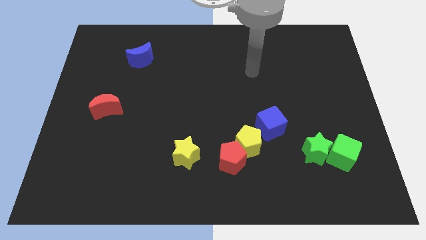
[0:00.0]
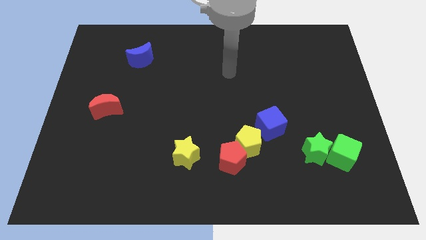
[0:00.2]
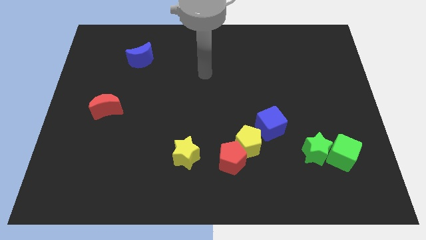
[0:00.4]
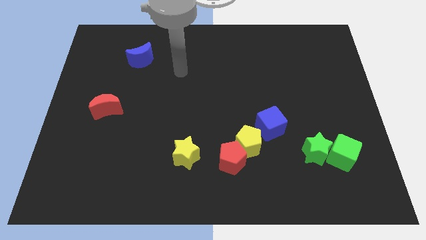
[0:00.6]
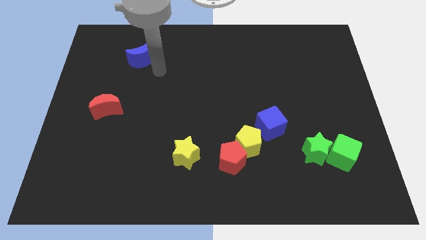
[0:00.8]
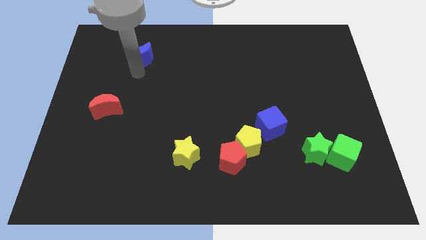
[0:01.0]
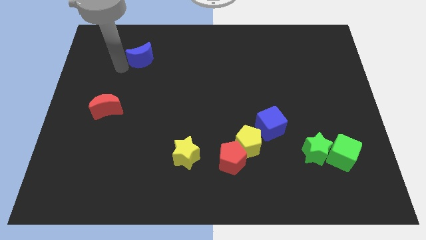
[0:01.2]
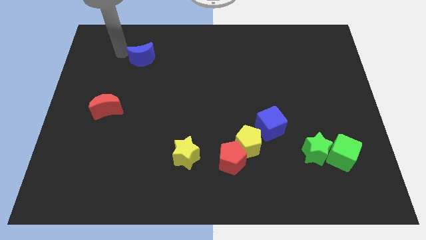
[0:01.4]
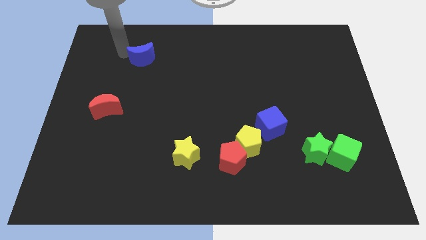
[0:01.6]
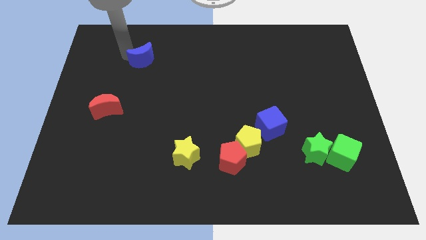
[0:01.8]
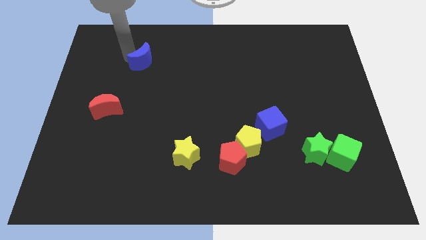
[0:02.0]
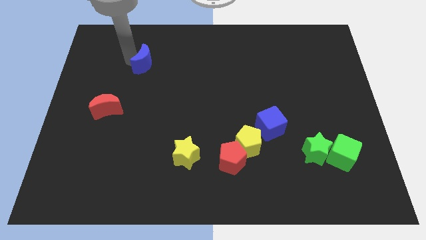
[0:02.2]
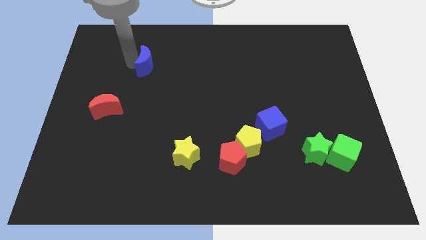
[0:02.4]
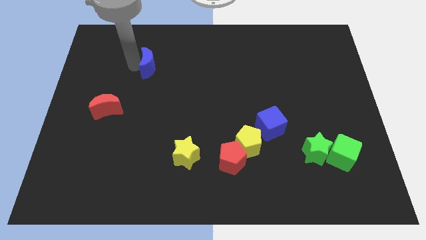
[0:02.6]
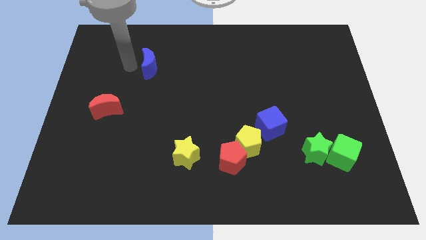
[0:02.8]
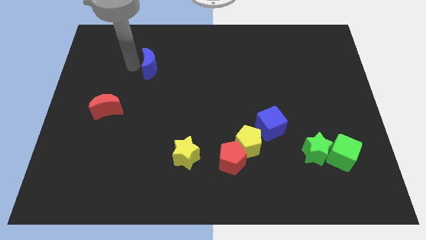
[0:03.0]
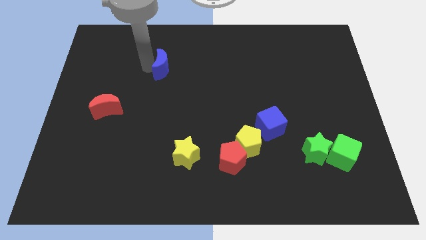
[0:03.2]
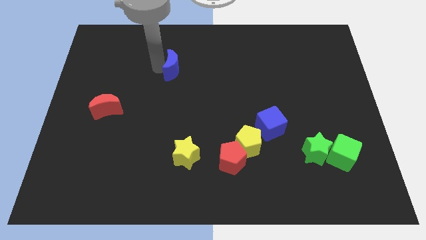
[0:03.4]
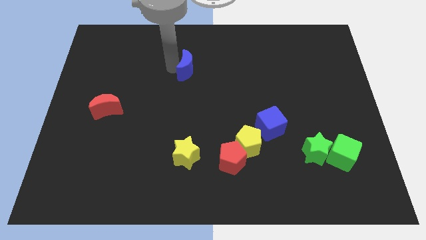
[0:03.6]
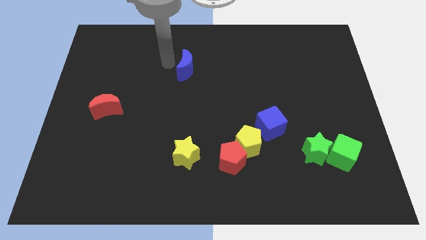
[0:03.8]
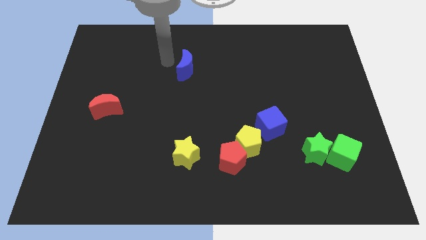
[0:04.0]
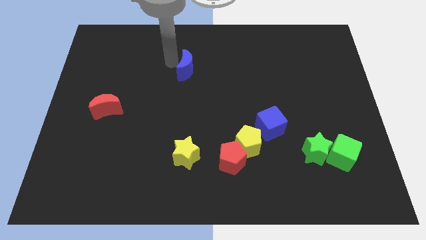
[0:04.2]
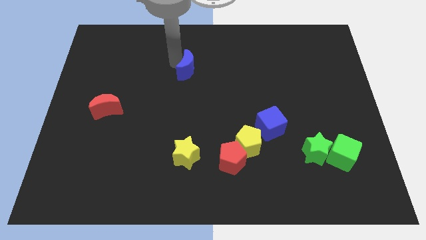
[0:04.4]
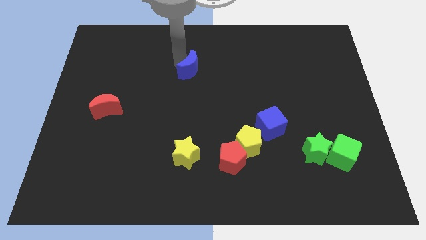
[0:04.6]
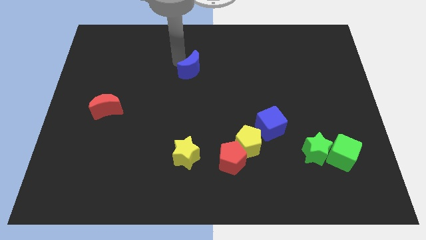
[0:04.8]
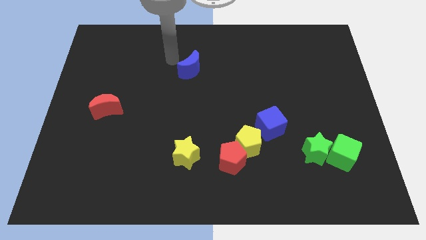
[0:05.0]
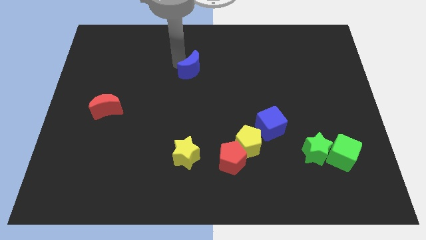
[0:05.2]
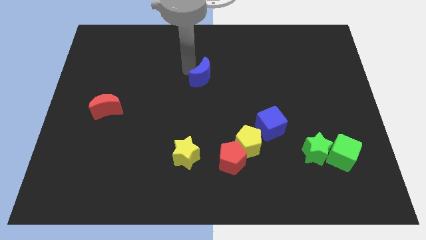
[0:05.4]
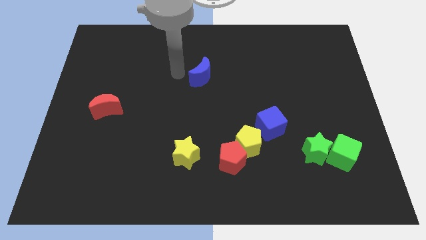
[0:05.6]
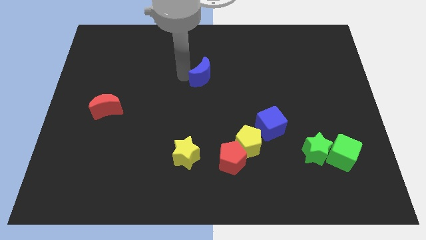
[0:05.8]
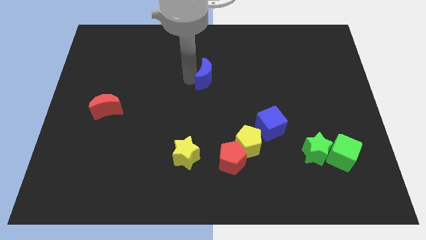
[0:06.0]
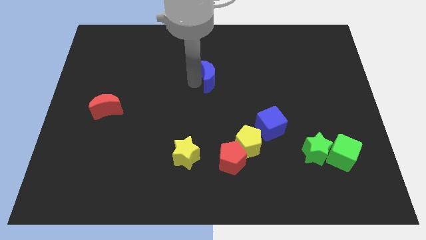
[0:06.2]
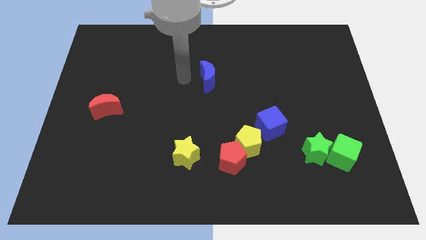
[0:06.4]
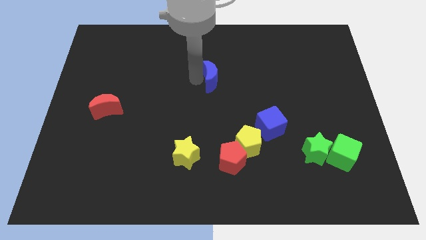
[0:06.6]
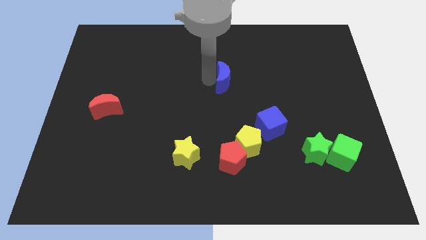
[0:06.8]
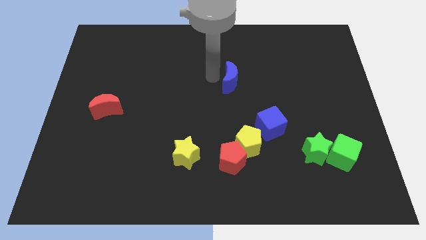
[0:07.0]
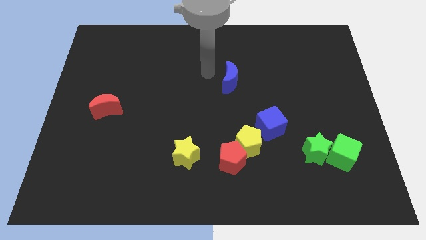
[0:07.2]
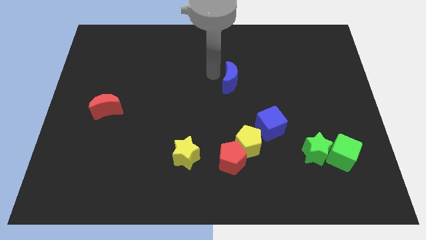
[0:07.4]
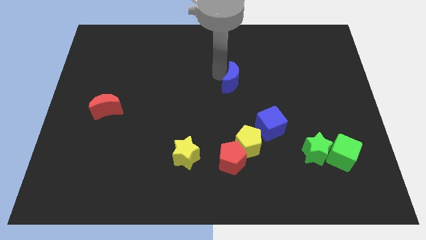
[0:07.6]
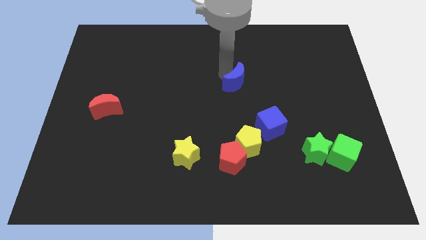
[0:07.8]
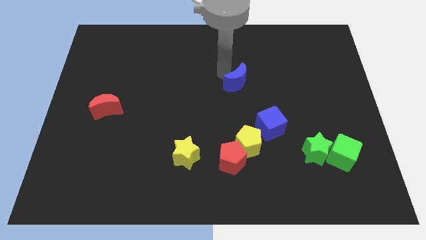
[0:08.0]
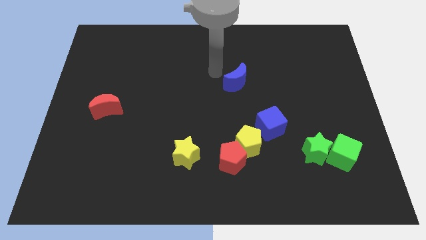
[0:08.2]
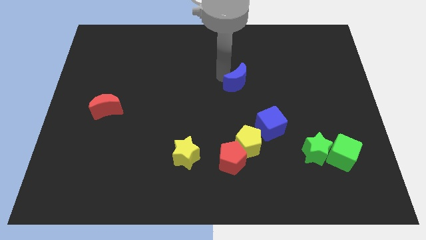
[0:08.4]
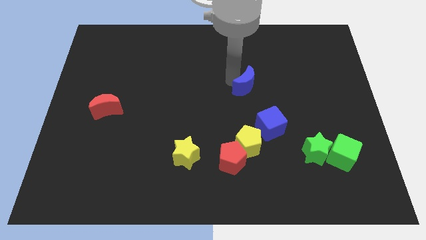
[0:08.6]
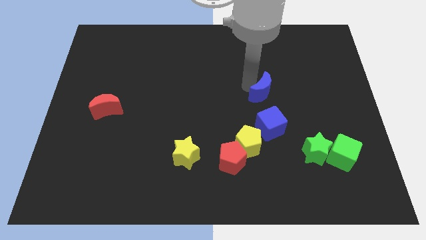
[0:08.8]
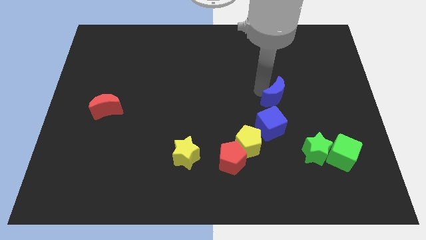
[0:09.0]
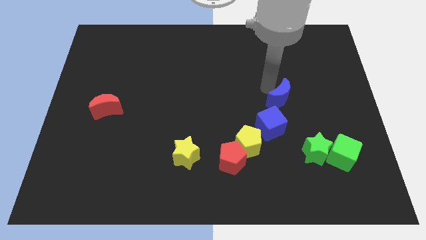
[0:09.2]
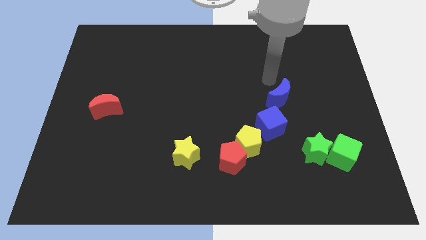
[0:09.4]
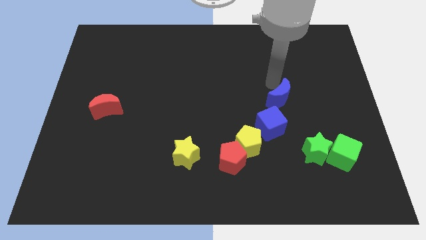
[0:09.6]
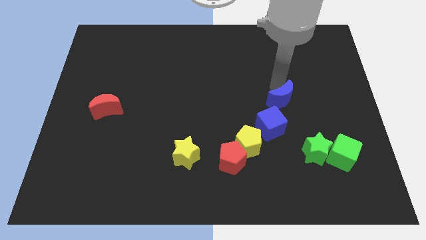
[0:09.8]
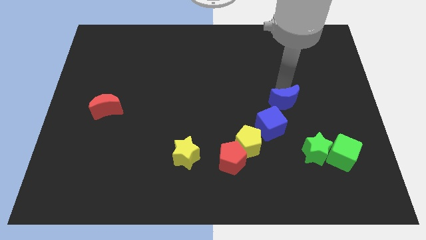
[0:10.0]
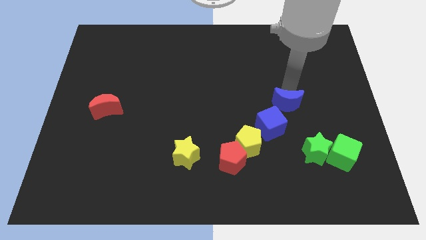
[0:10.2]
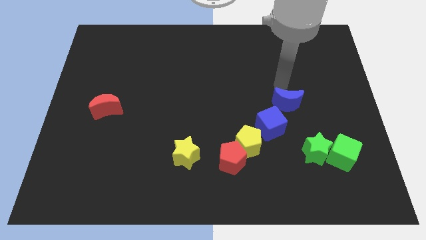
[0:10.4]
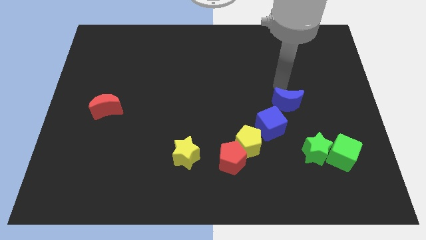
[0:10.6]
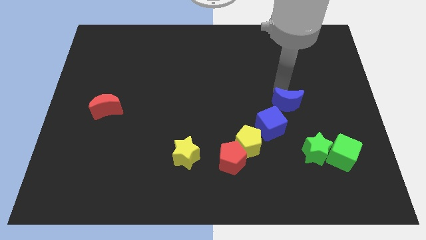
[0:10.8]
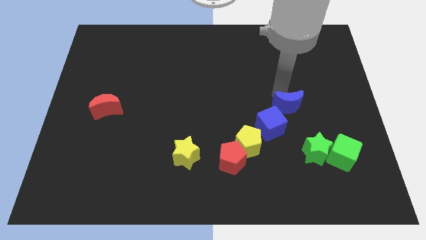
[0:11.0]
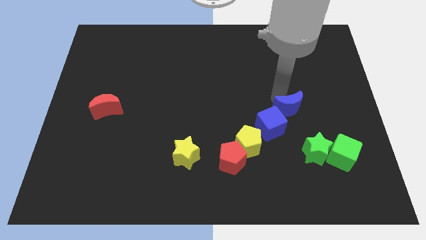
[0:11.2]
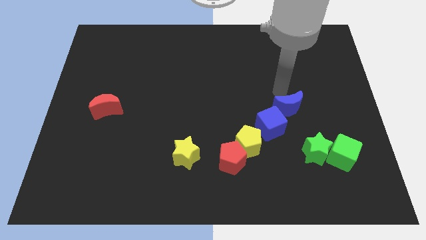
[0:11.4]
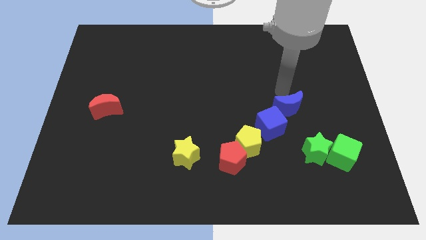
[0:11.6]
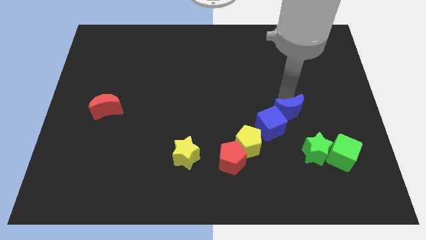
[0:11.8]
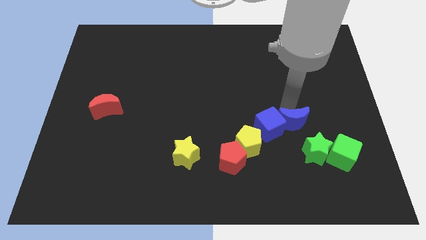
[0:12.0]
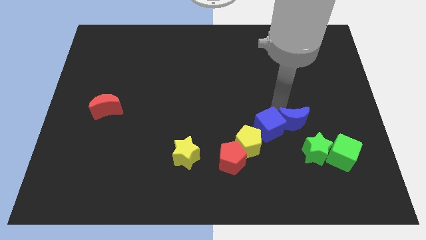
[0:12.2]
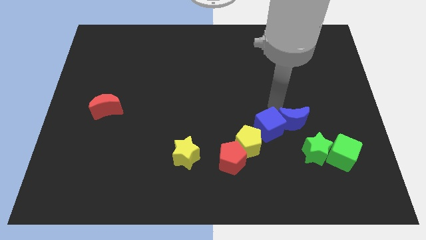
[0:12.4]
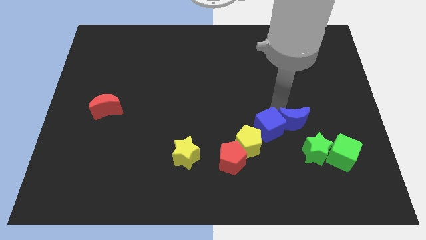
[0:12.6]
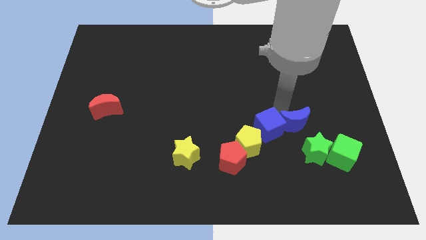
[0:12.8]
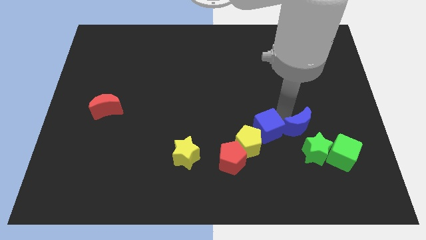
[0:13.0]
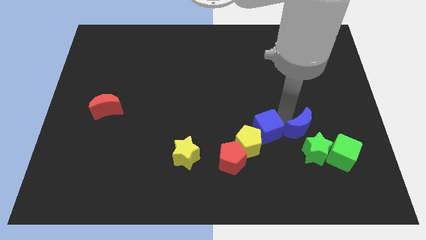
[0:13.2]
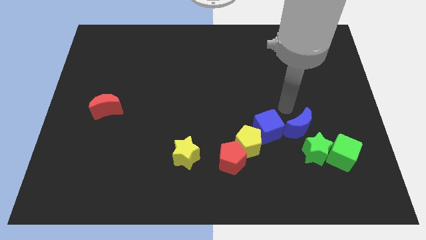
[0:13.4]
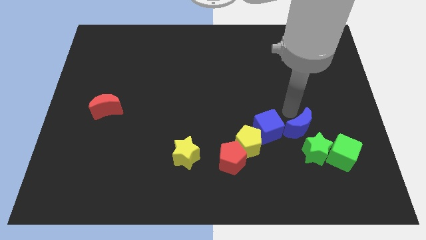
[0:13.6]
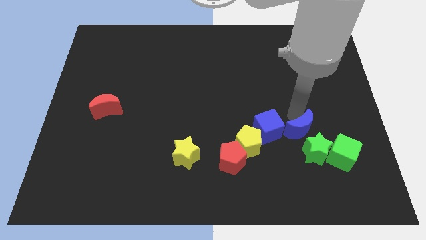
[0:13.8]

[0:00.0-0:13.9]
move the blue moon next to the green star
